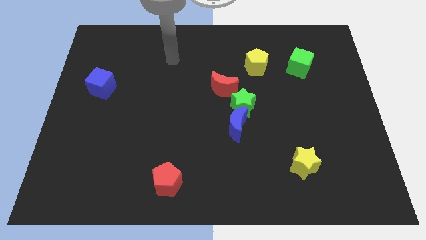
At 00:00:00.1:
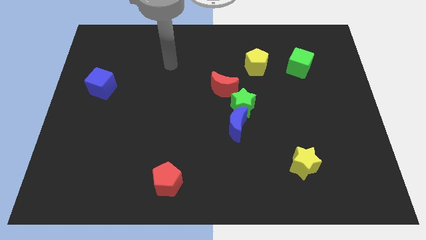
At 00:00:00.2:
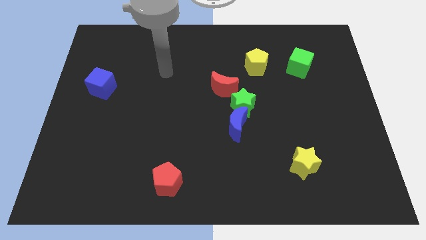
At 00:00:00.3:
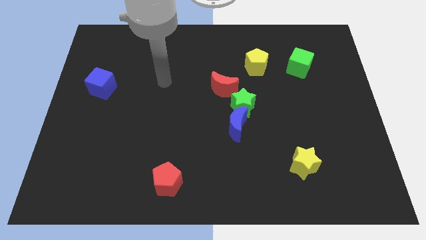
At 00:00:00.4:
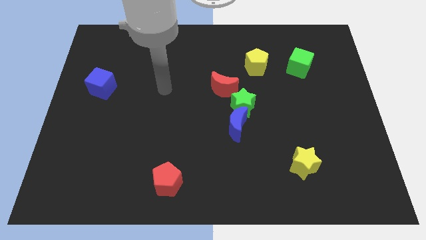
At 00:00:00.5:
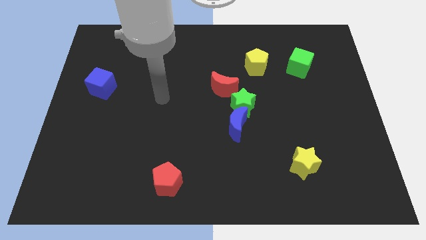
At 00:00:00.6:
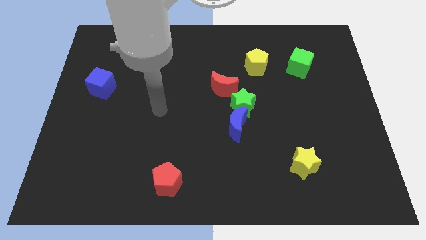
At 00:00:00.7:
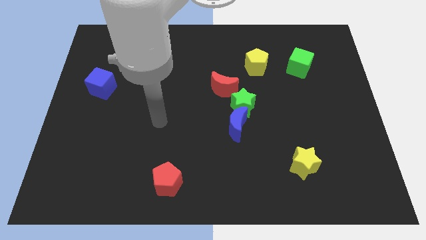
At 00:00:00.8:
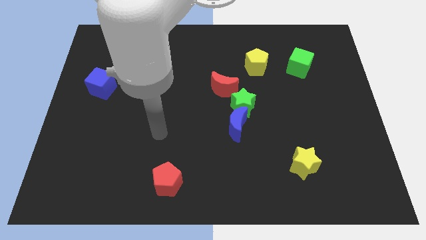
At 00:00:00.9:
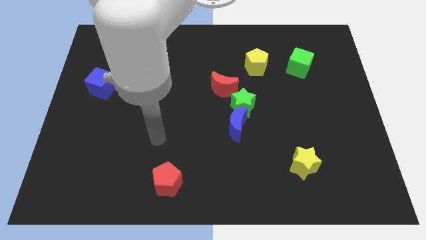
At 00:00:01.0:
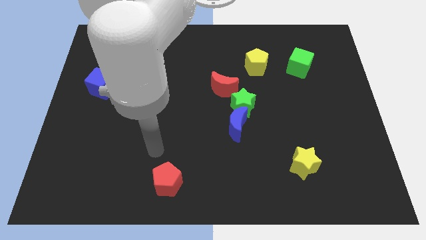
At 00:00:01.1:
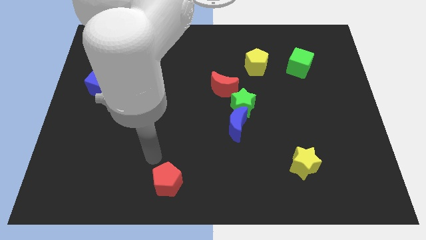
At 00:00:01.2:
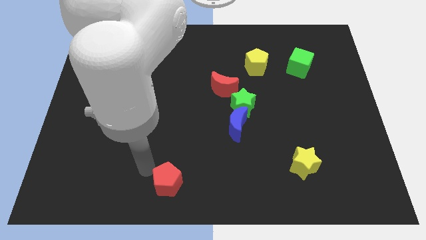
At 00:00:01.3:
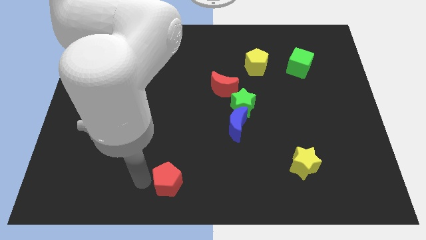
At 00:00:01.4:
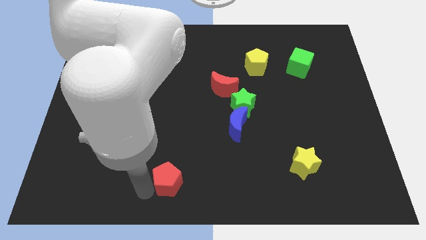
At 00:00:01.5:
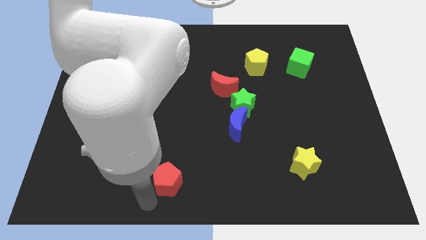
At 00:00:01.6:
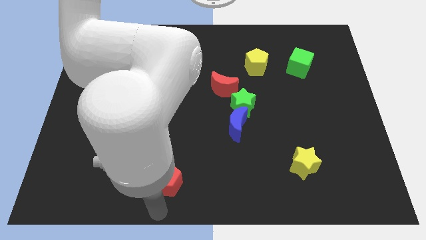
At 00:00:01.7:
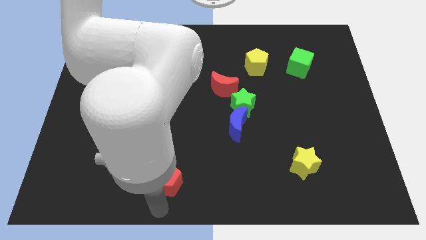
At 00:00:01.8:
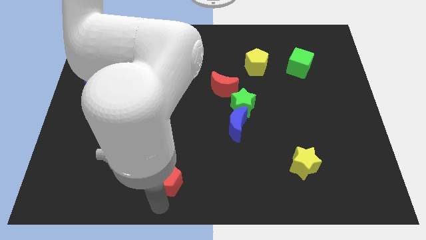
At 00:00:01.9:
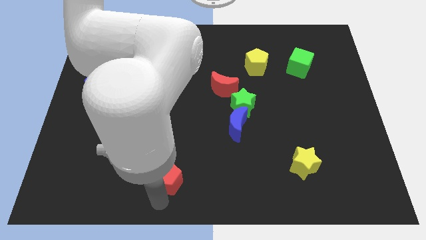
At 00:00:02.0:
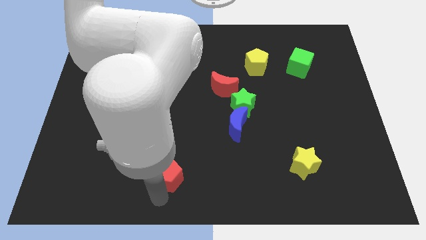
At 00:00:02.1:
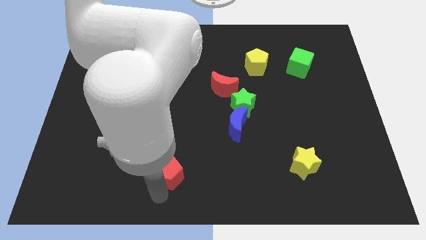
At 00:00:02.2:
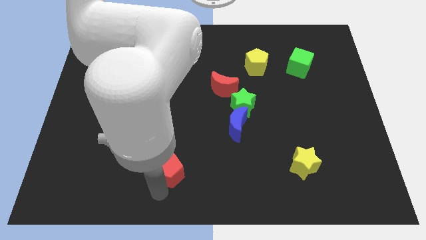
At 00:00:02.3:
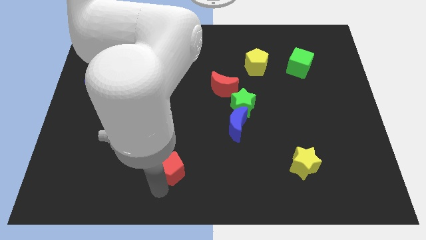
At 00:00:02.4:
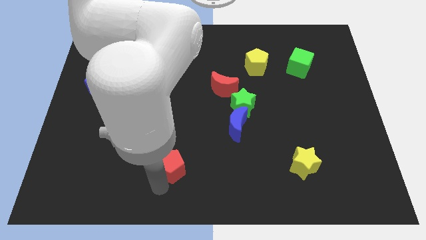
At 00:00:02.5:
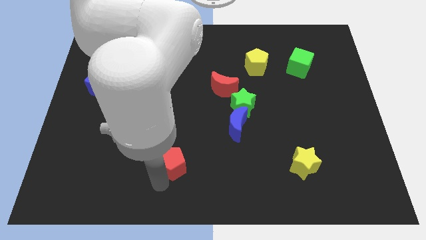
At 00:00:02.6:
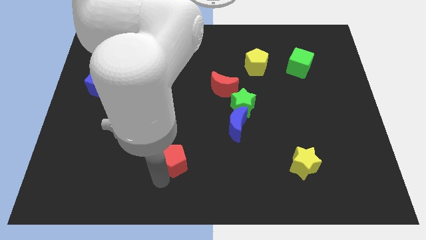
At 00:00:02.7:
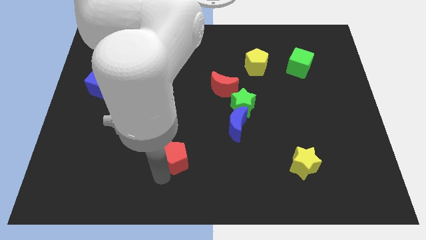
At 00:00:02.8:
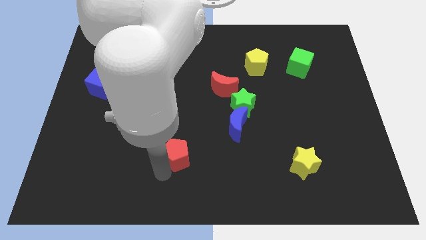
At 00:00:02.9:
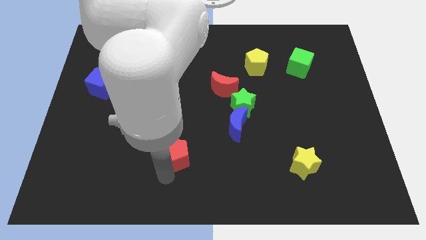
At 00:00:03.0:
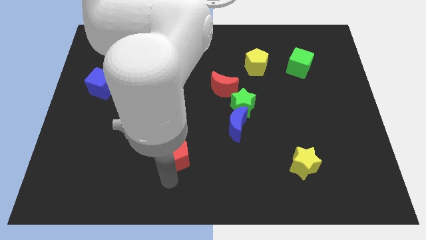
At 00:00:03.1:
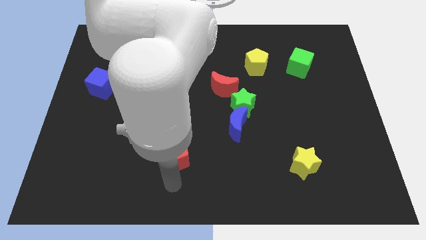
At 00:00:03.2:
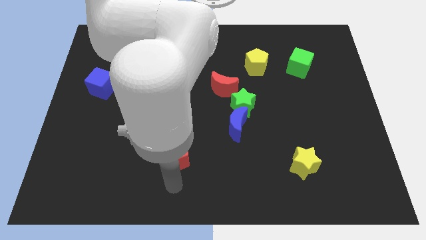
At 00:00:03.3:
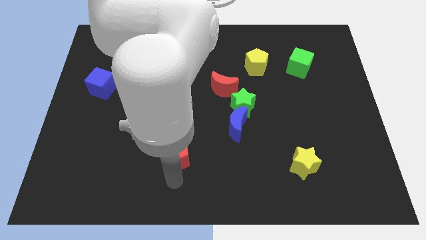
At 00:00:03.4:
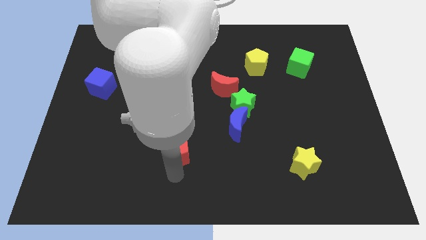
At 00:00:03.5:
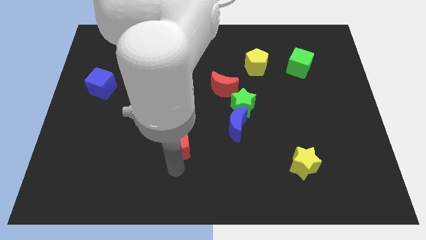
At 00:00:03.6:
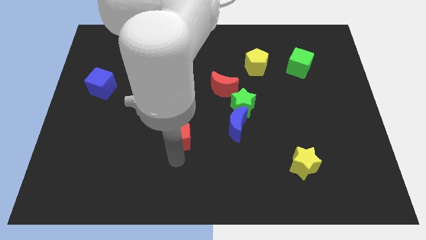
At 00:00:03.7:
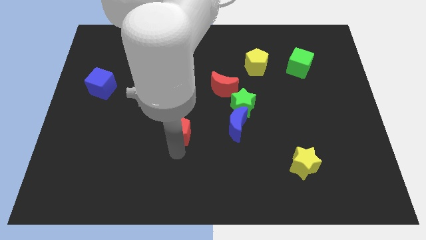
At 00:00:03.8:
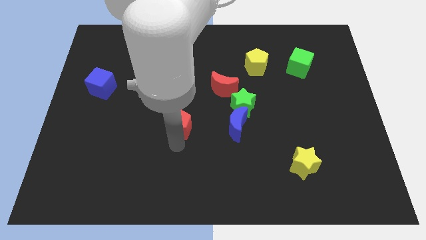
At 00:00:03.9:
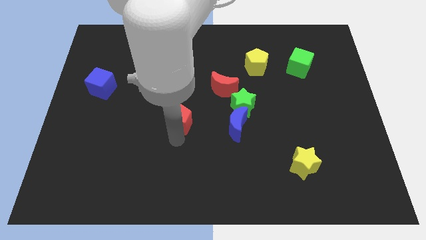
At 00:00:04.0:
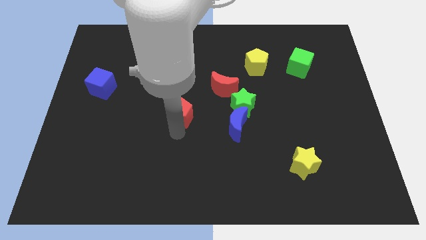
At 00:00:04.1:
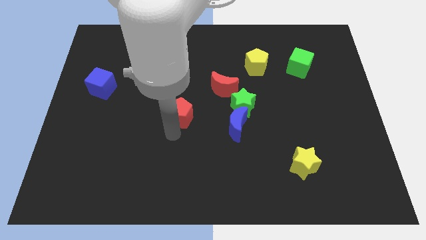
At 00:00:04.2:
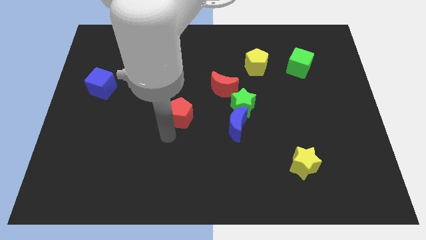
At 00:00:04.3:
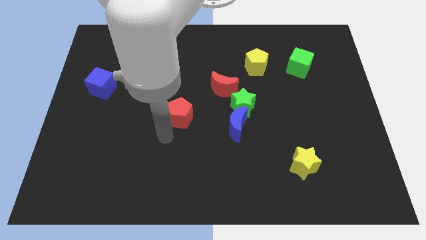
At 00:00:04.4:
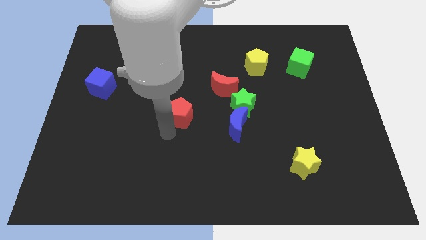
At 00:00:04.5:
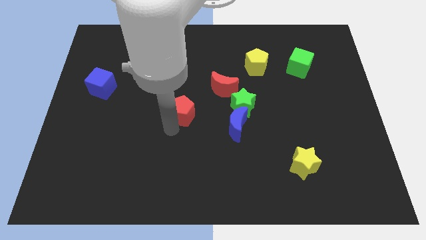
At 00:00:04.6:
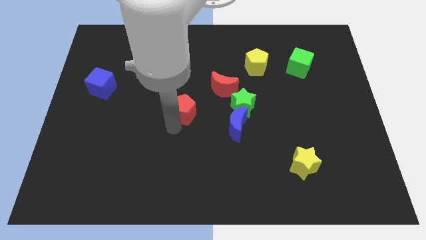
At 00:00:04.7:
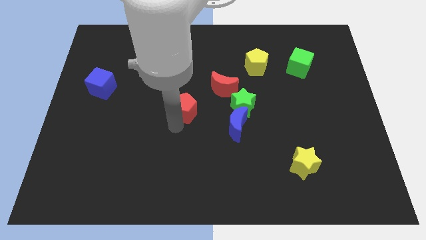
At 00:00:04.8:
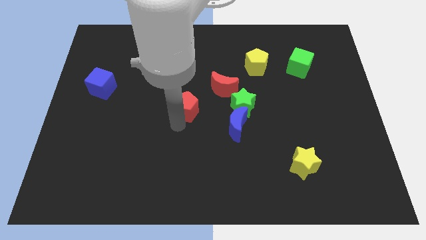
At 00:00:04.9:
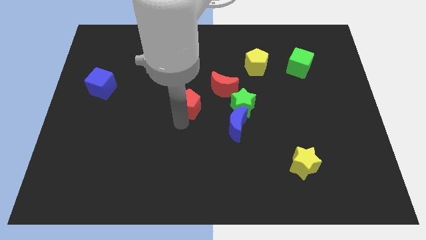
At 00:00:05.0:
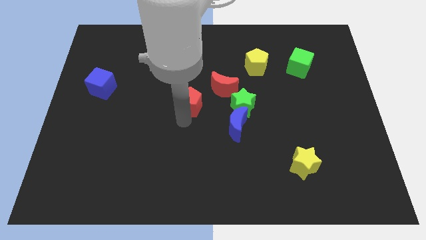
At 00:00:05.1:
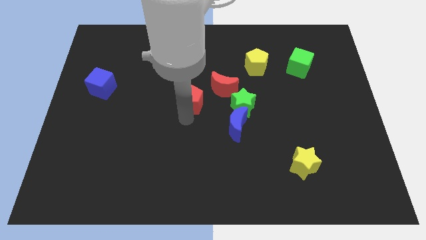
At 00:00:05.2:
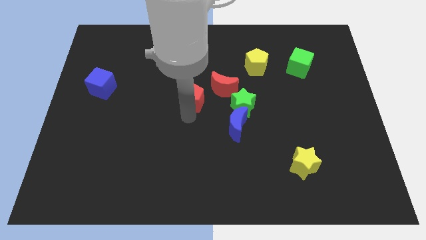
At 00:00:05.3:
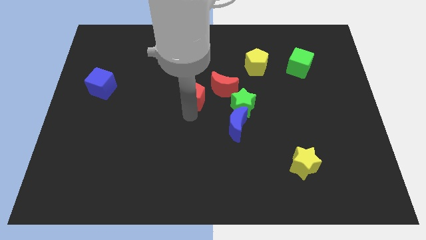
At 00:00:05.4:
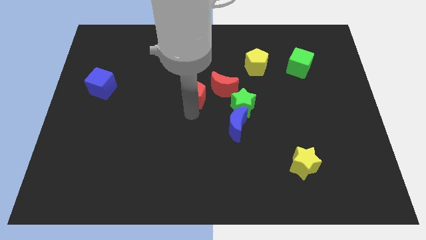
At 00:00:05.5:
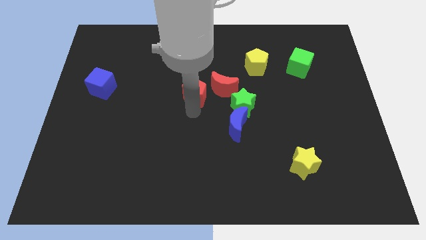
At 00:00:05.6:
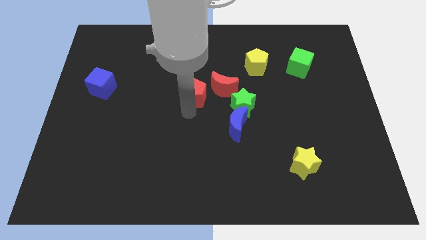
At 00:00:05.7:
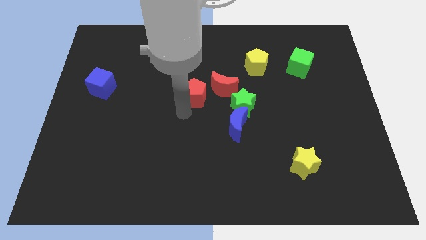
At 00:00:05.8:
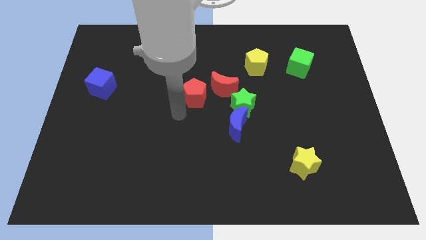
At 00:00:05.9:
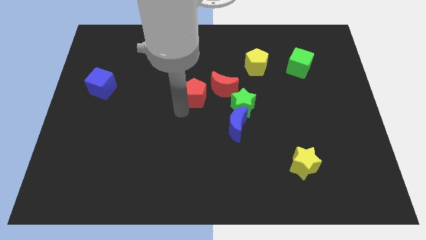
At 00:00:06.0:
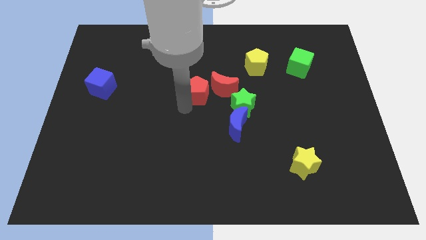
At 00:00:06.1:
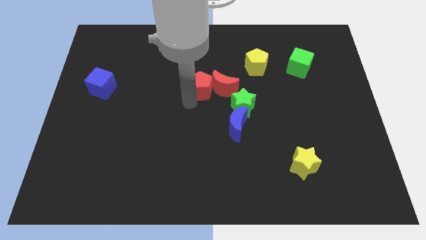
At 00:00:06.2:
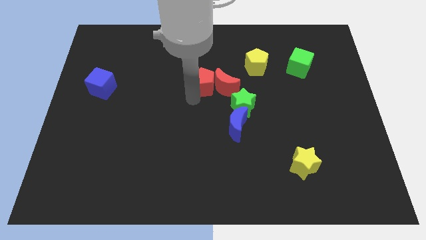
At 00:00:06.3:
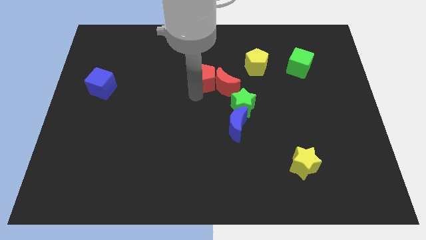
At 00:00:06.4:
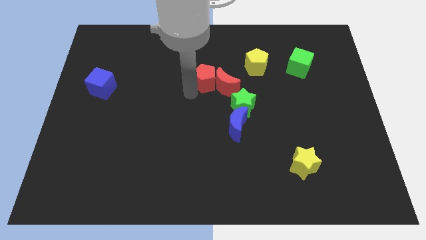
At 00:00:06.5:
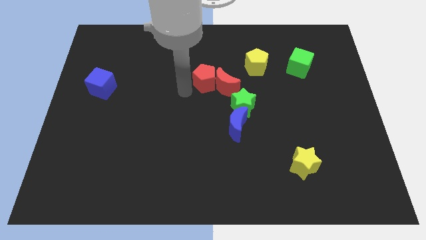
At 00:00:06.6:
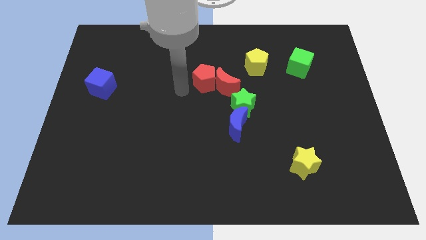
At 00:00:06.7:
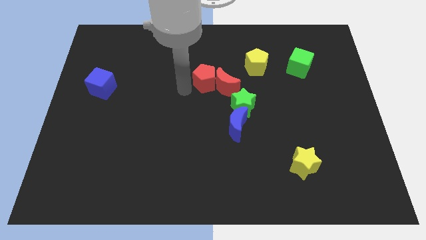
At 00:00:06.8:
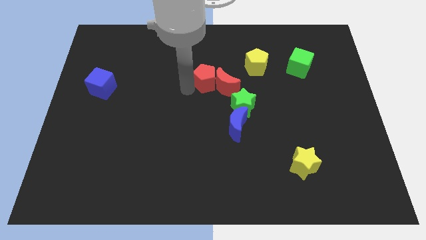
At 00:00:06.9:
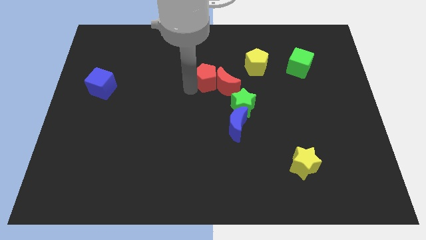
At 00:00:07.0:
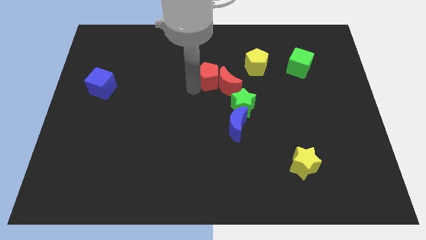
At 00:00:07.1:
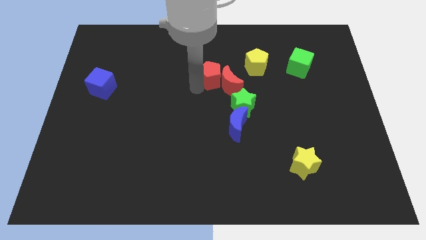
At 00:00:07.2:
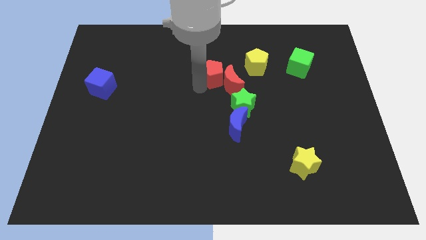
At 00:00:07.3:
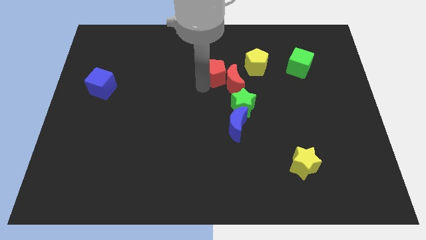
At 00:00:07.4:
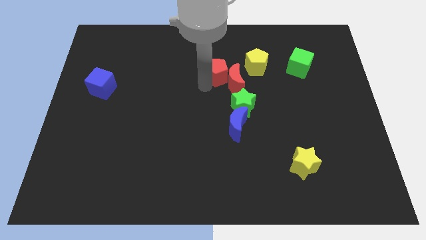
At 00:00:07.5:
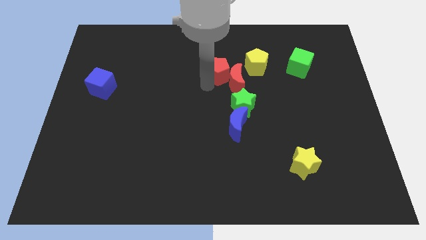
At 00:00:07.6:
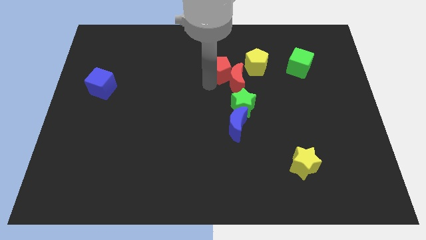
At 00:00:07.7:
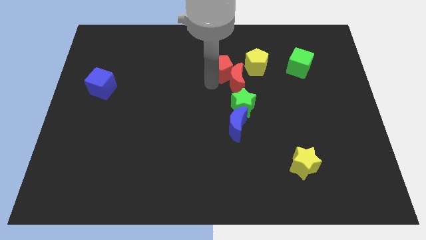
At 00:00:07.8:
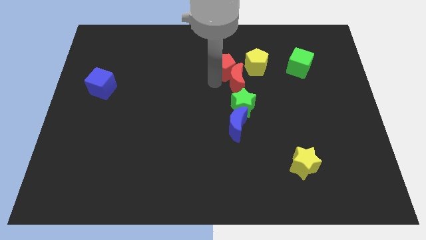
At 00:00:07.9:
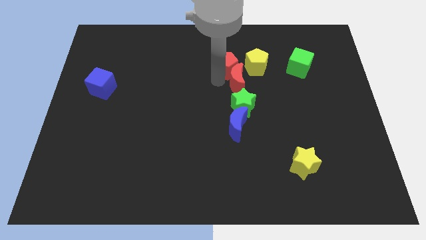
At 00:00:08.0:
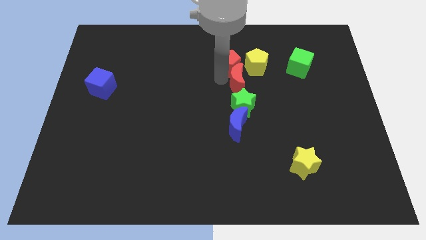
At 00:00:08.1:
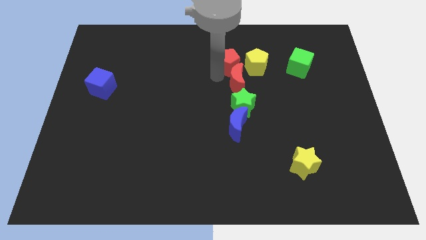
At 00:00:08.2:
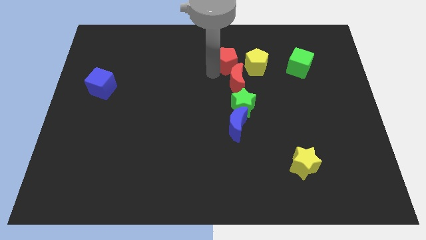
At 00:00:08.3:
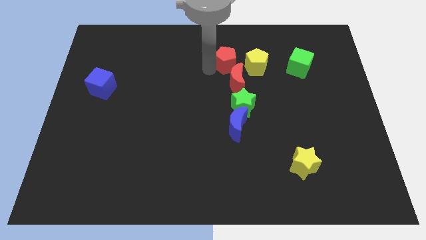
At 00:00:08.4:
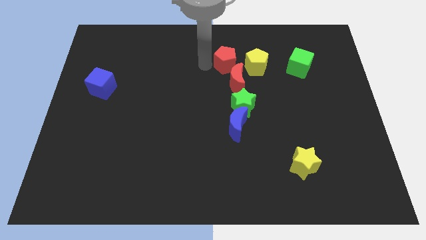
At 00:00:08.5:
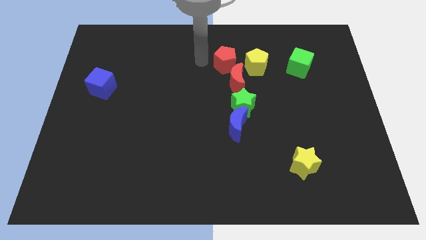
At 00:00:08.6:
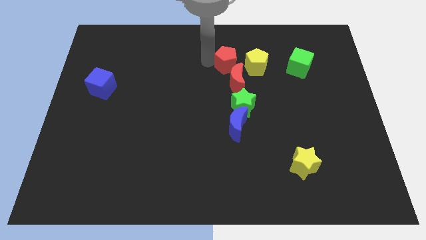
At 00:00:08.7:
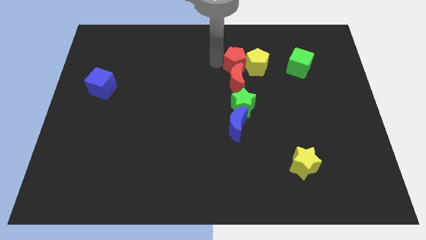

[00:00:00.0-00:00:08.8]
push the red pentagon towards the yellow pentagon
